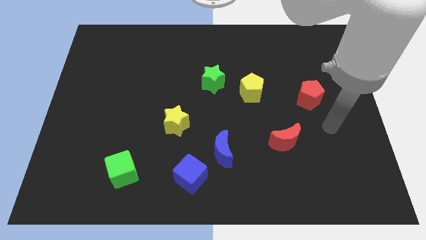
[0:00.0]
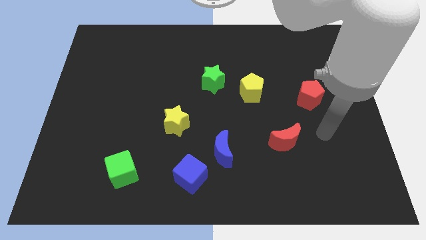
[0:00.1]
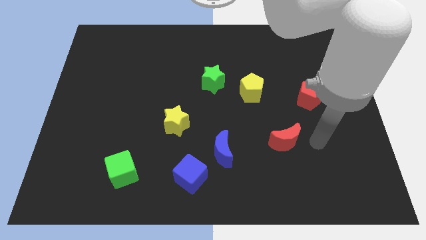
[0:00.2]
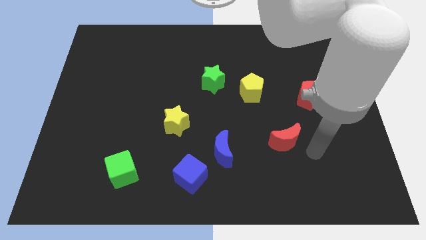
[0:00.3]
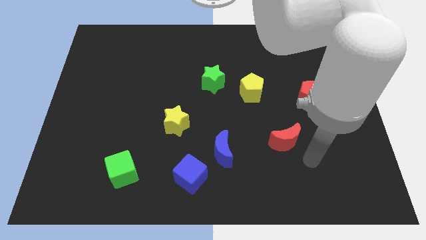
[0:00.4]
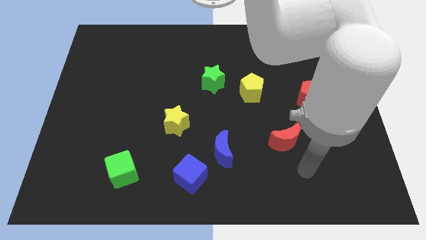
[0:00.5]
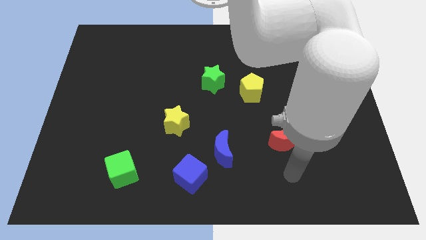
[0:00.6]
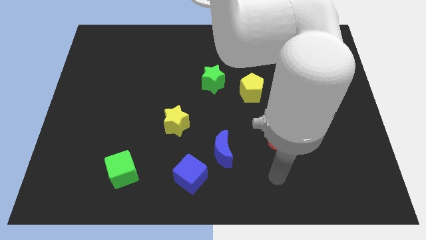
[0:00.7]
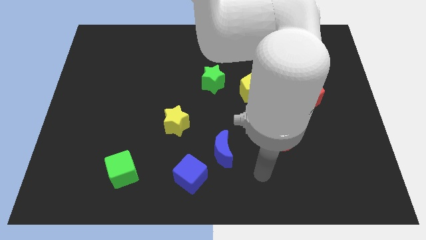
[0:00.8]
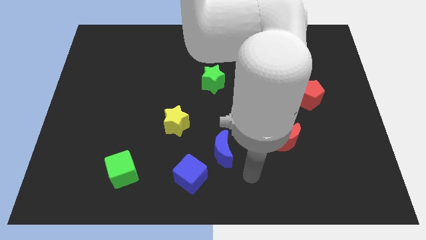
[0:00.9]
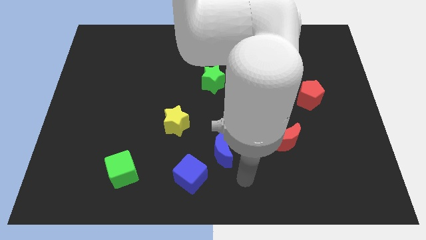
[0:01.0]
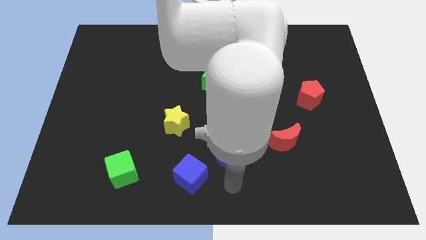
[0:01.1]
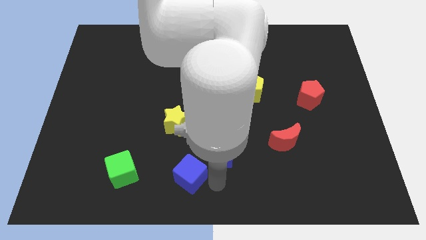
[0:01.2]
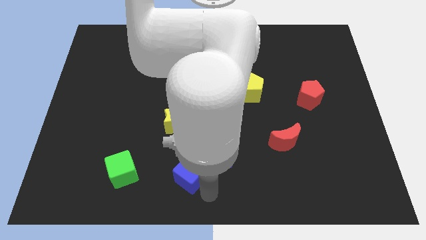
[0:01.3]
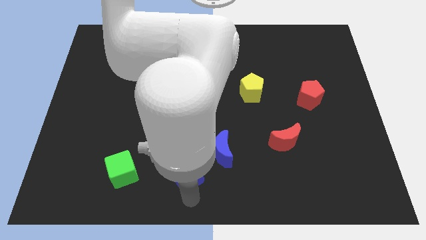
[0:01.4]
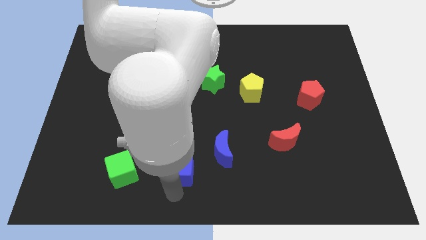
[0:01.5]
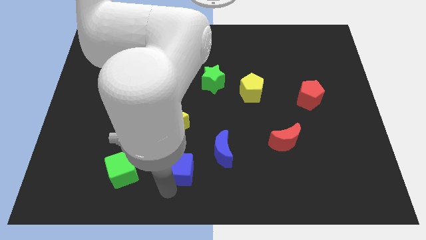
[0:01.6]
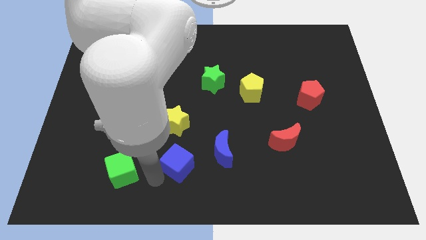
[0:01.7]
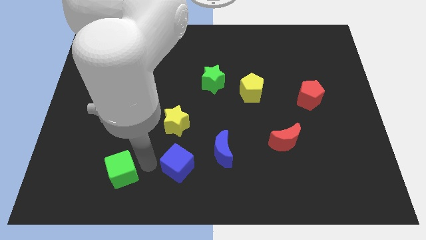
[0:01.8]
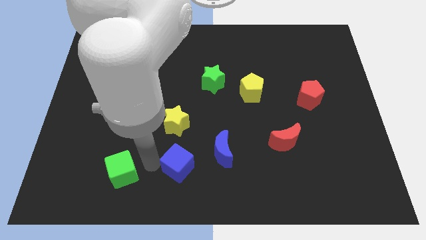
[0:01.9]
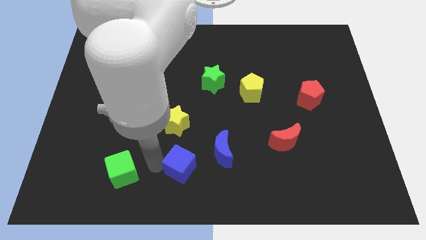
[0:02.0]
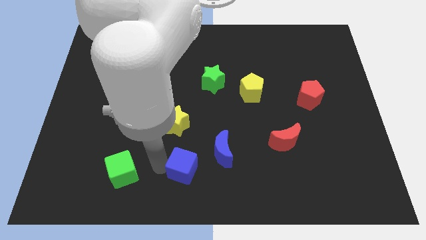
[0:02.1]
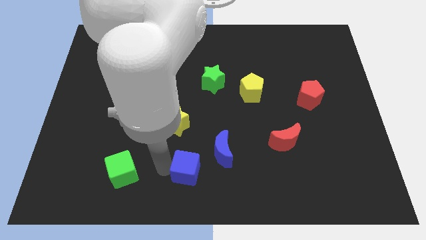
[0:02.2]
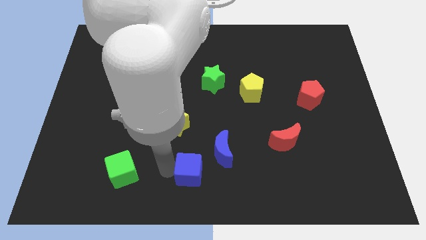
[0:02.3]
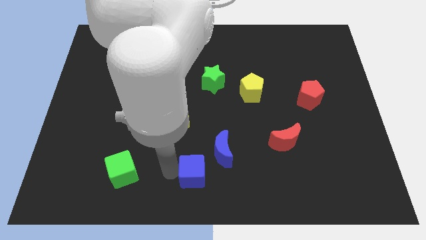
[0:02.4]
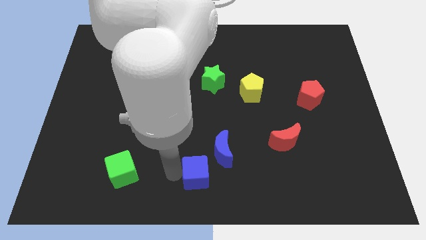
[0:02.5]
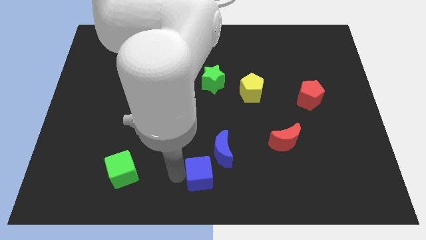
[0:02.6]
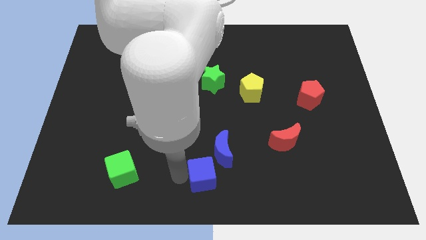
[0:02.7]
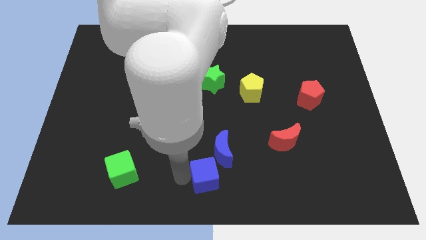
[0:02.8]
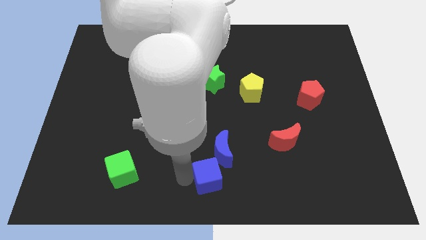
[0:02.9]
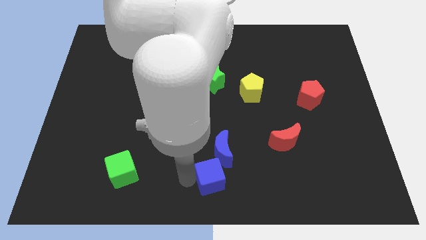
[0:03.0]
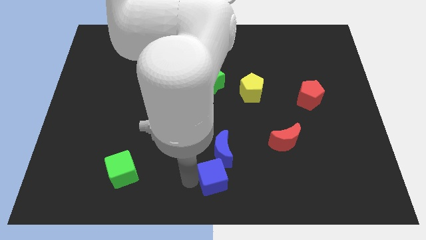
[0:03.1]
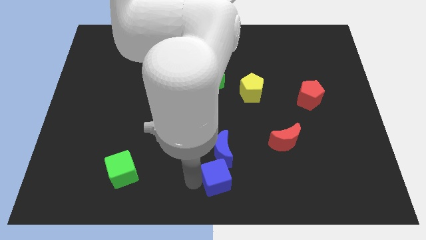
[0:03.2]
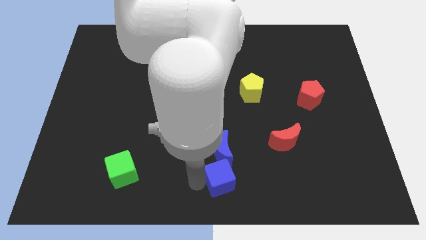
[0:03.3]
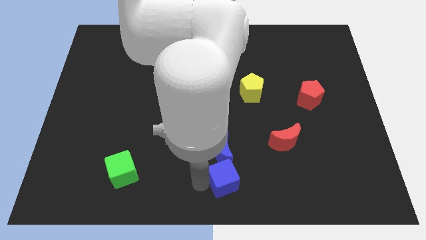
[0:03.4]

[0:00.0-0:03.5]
move the blue cube right somewhat

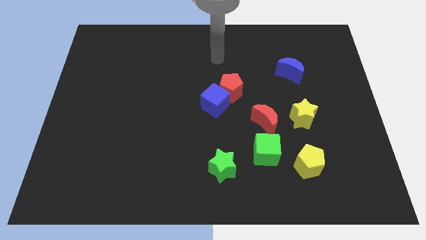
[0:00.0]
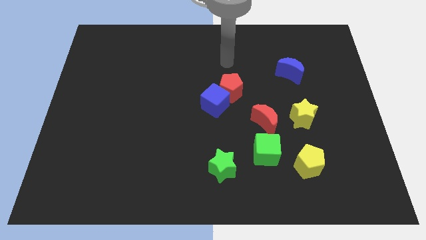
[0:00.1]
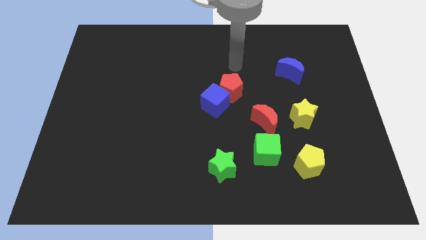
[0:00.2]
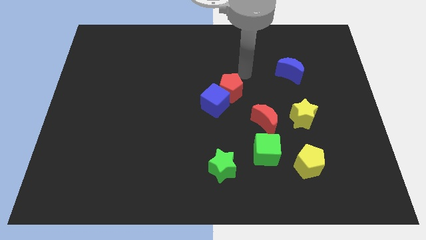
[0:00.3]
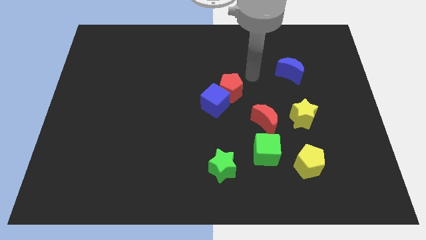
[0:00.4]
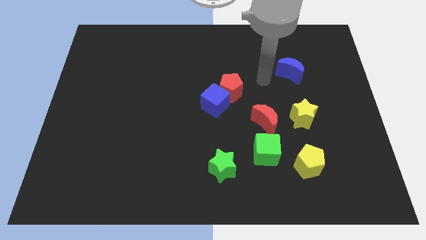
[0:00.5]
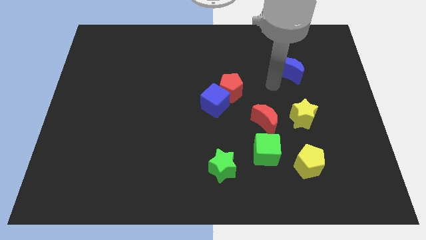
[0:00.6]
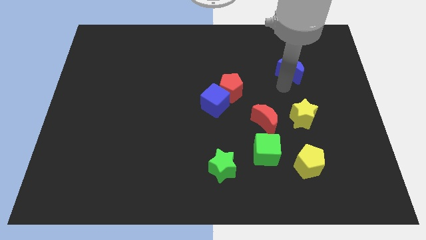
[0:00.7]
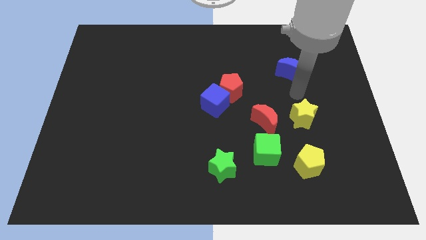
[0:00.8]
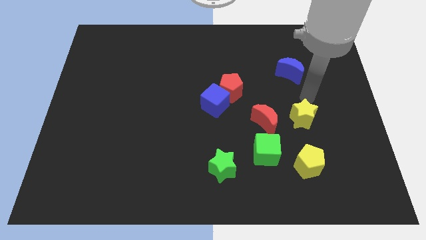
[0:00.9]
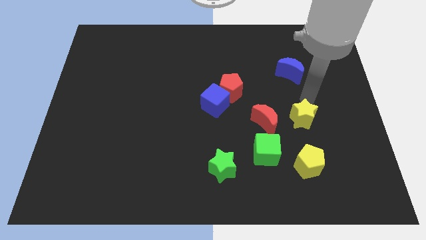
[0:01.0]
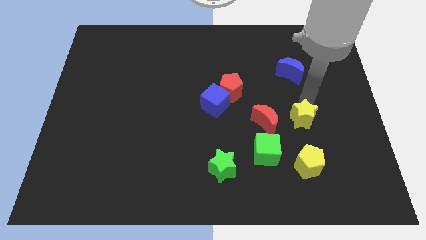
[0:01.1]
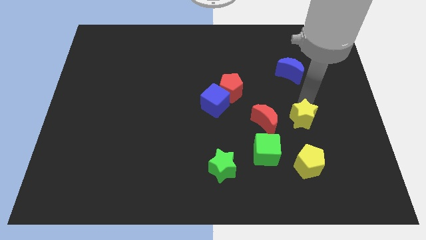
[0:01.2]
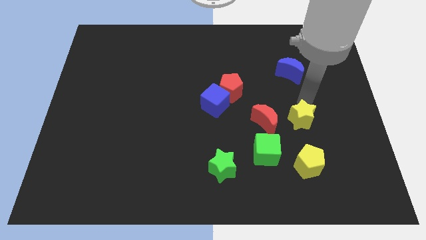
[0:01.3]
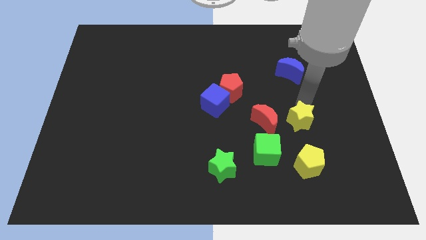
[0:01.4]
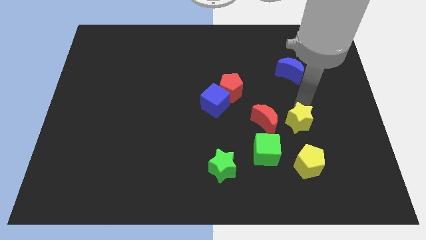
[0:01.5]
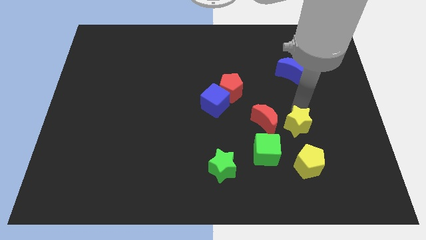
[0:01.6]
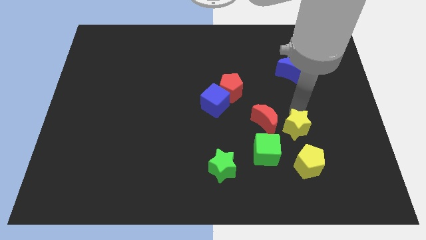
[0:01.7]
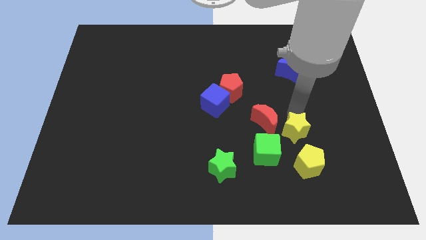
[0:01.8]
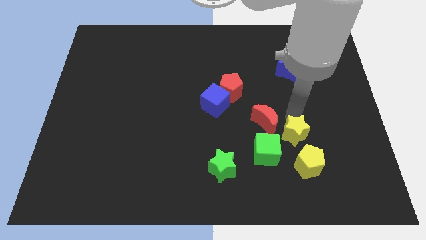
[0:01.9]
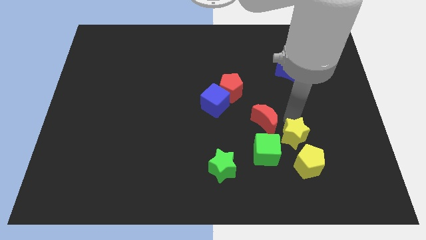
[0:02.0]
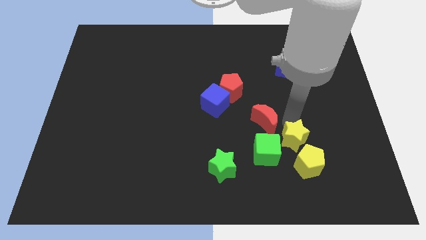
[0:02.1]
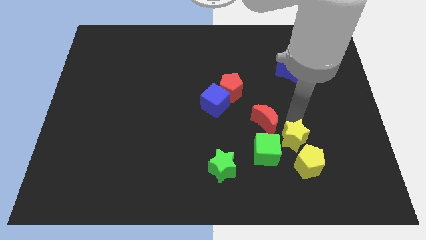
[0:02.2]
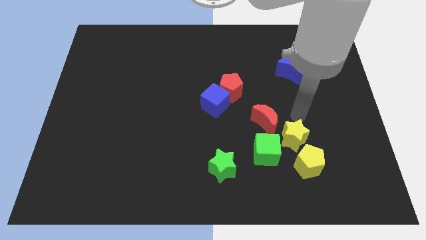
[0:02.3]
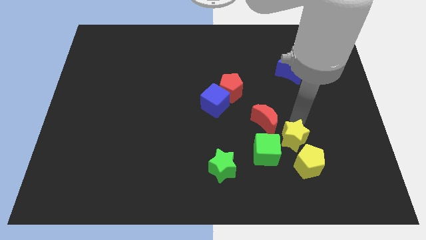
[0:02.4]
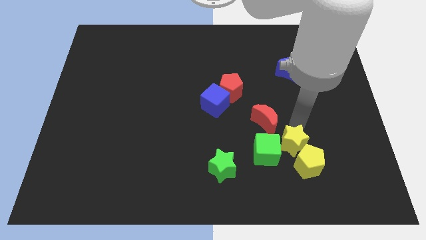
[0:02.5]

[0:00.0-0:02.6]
push the yellow star down and to the left a little bit

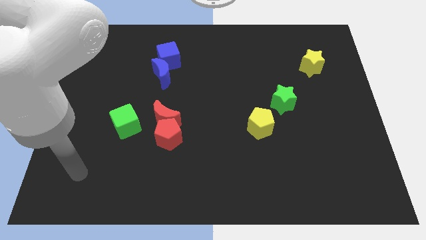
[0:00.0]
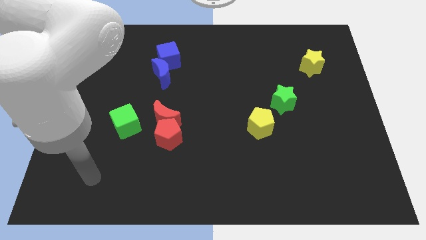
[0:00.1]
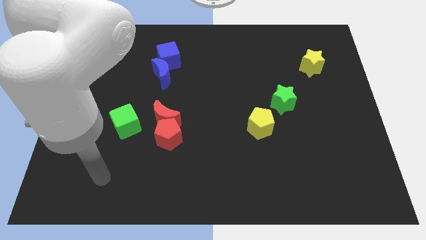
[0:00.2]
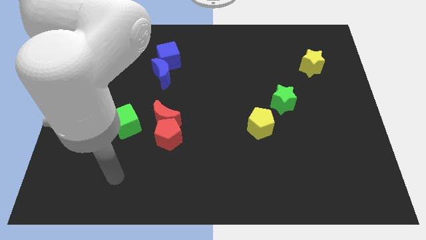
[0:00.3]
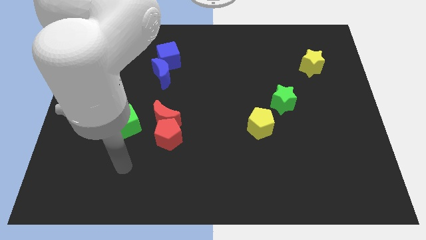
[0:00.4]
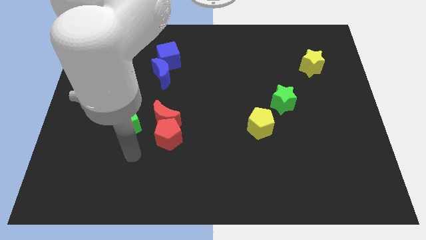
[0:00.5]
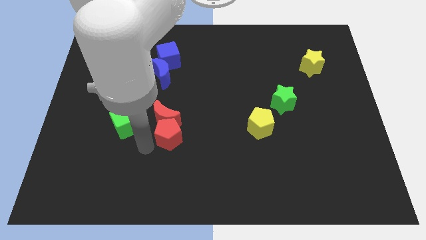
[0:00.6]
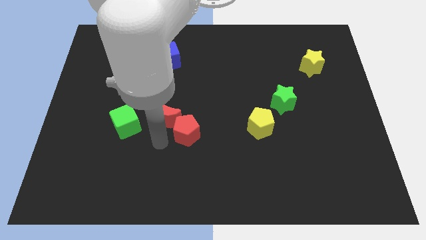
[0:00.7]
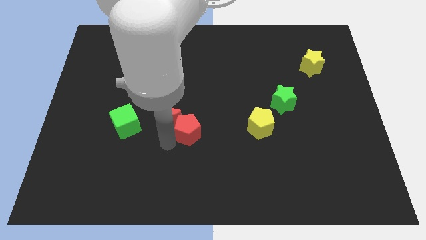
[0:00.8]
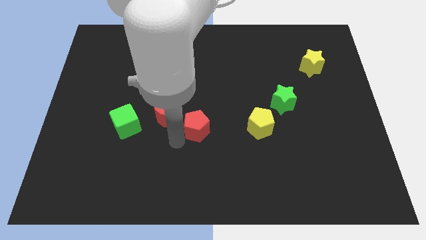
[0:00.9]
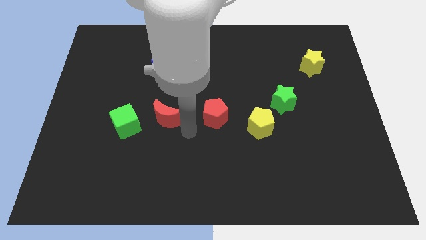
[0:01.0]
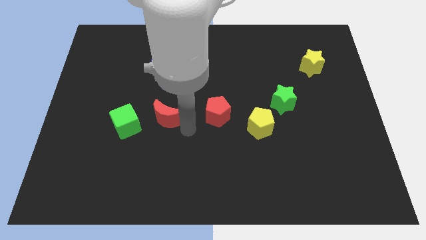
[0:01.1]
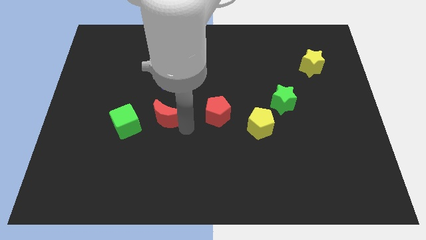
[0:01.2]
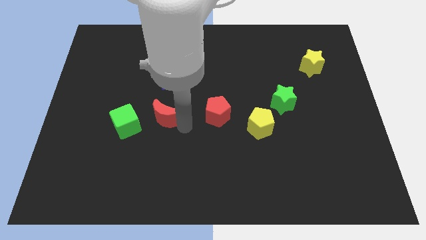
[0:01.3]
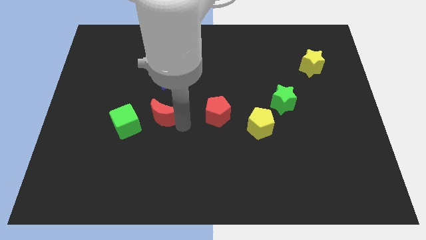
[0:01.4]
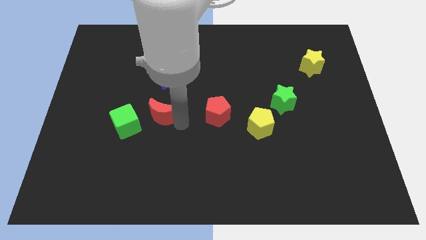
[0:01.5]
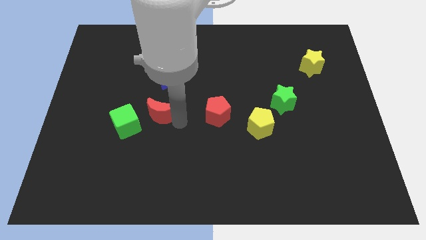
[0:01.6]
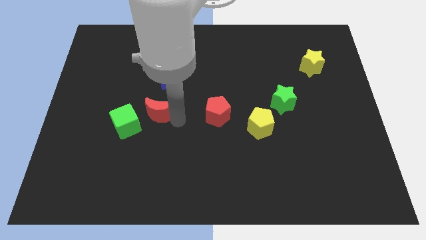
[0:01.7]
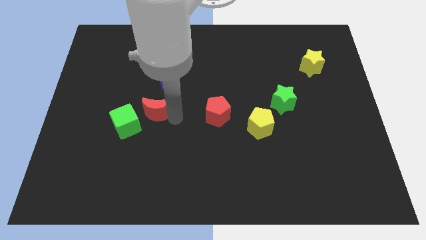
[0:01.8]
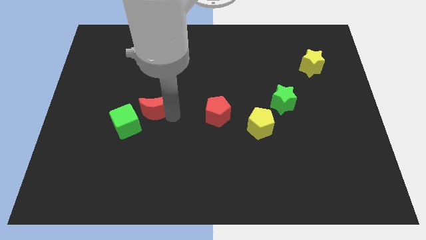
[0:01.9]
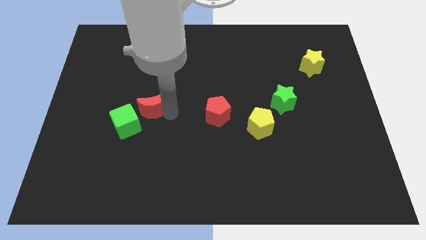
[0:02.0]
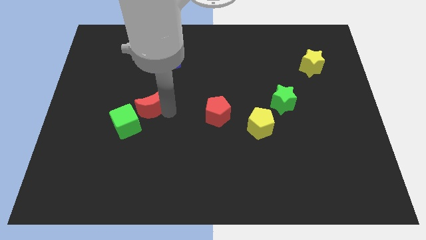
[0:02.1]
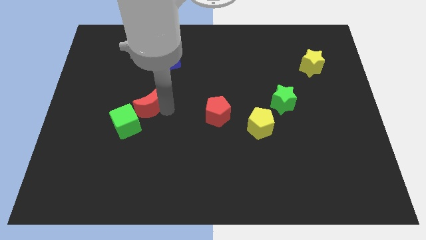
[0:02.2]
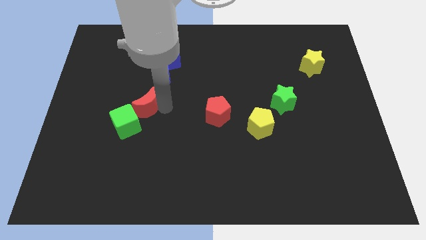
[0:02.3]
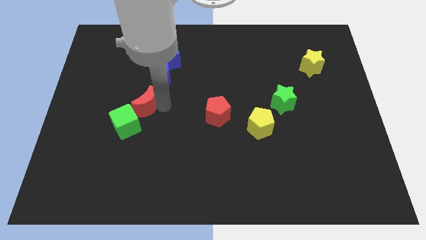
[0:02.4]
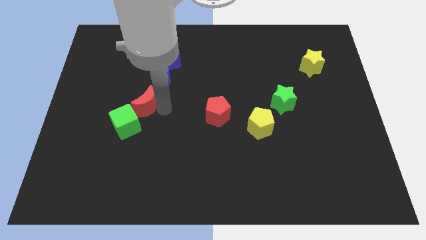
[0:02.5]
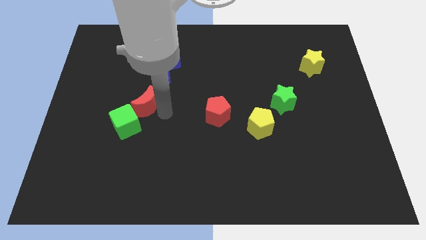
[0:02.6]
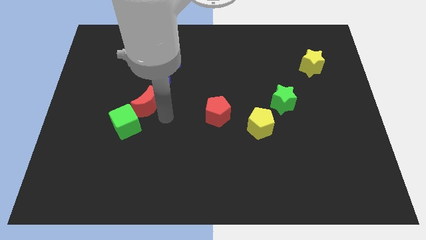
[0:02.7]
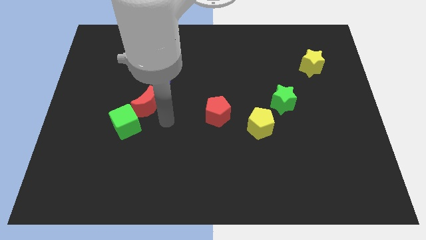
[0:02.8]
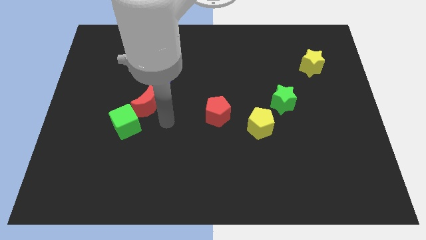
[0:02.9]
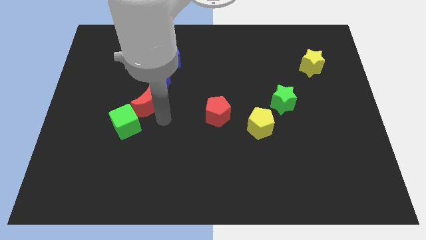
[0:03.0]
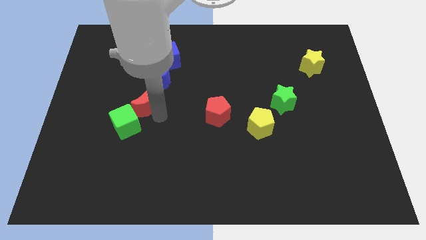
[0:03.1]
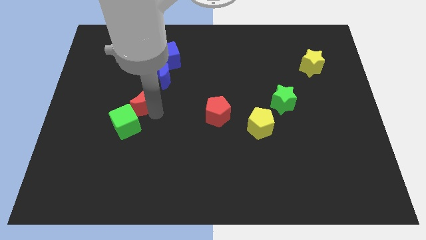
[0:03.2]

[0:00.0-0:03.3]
slightly slide the red moon upwards and left diagonally
